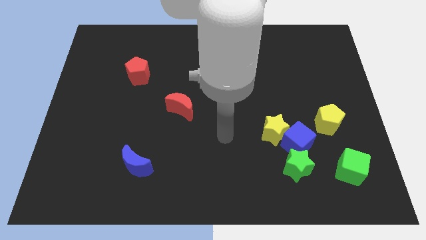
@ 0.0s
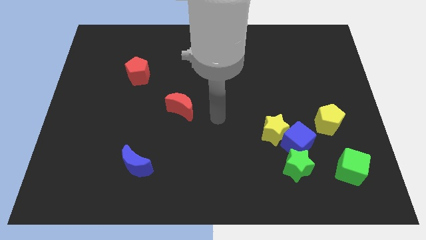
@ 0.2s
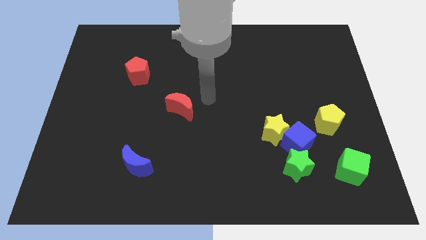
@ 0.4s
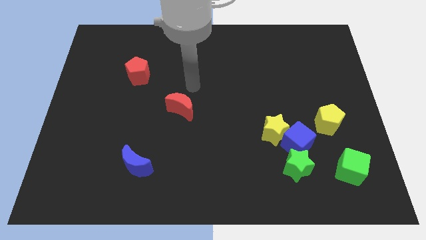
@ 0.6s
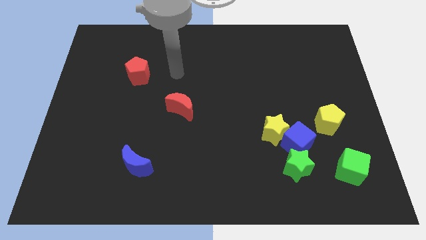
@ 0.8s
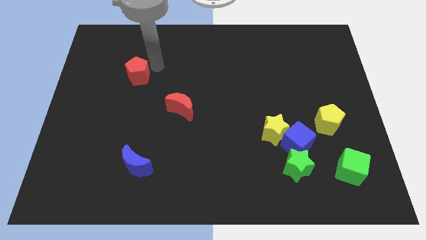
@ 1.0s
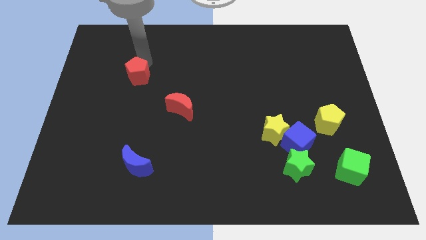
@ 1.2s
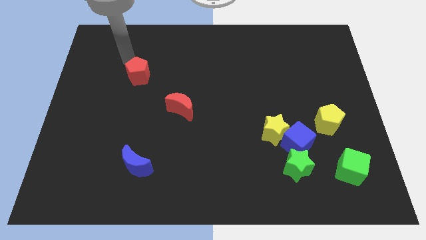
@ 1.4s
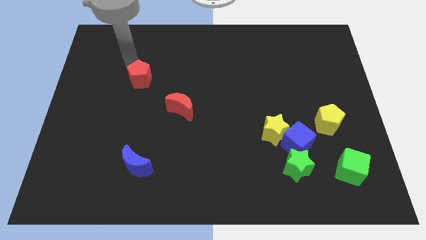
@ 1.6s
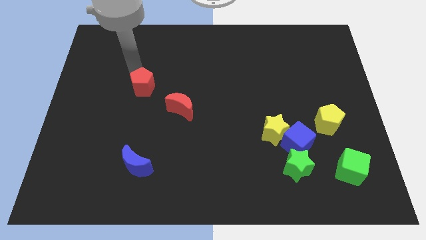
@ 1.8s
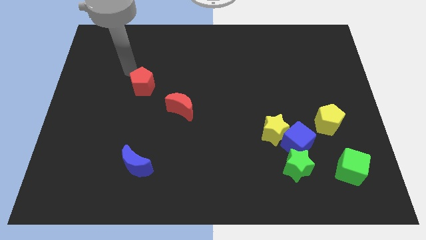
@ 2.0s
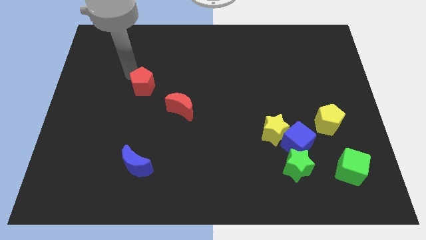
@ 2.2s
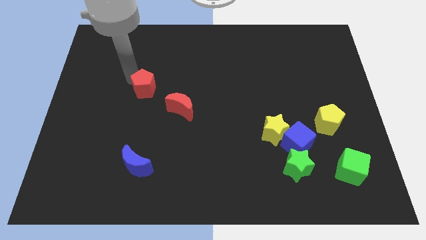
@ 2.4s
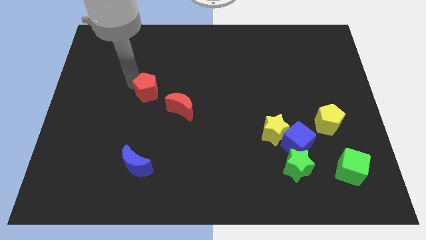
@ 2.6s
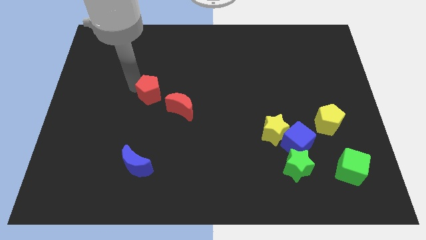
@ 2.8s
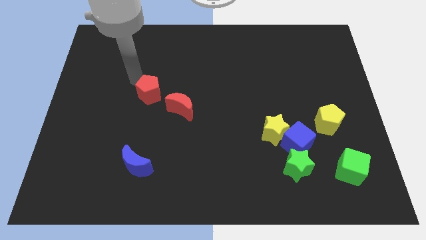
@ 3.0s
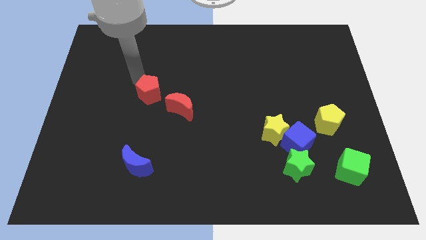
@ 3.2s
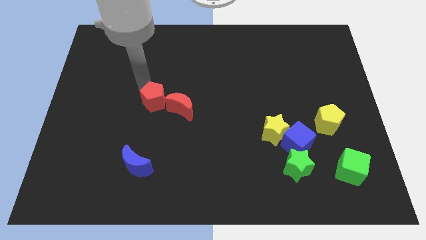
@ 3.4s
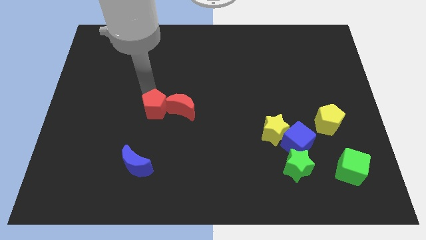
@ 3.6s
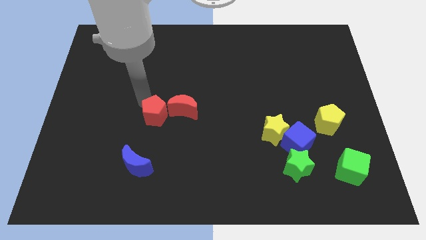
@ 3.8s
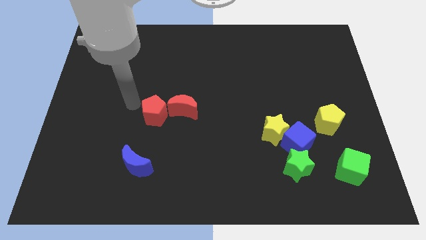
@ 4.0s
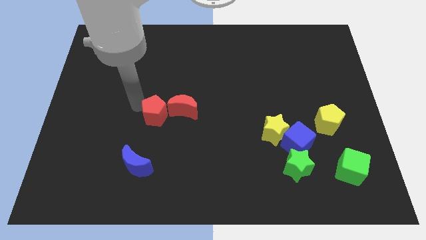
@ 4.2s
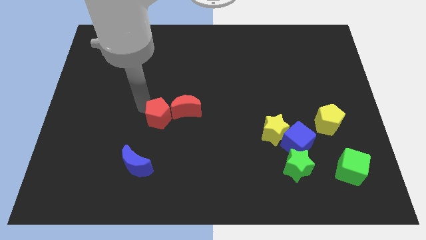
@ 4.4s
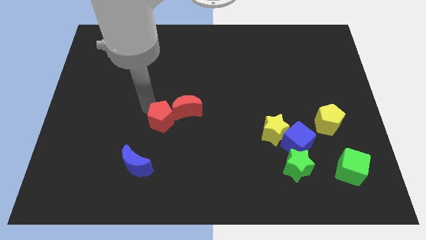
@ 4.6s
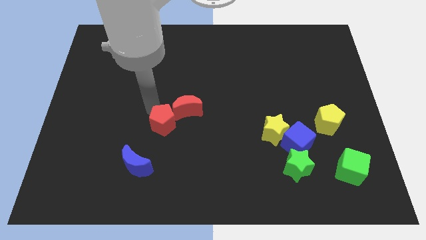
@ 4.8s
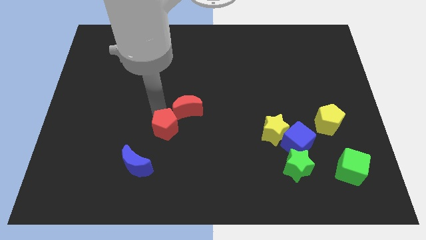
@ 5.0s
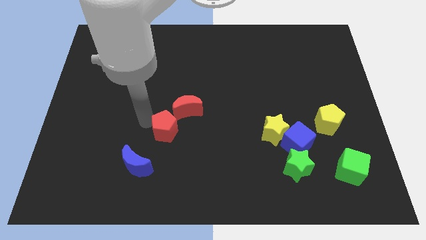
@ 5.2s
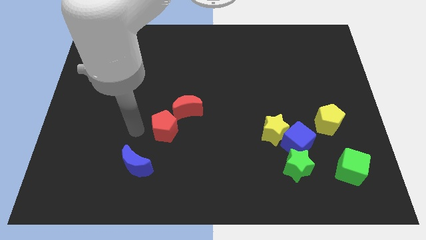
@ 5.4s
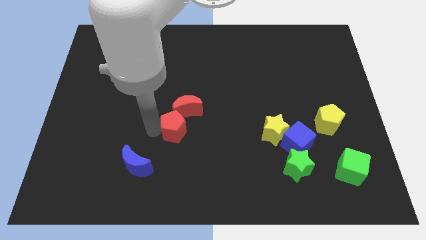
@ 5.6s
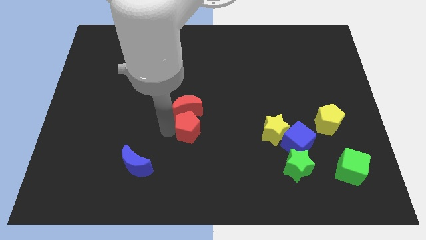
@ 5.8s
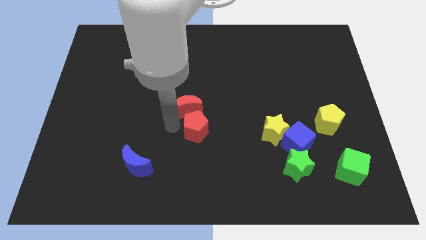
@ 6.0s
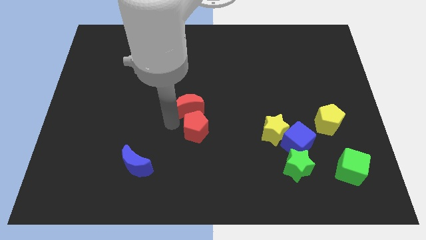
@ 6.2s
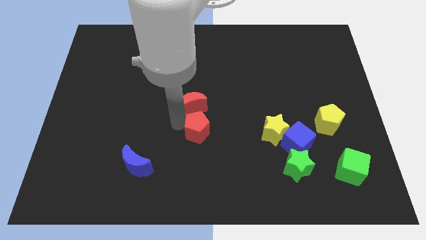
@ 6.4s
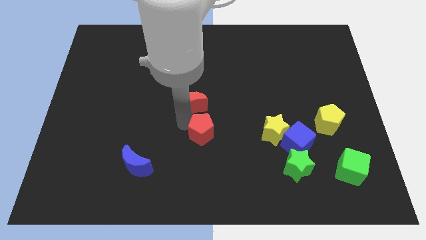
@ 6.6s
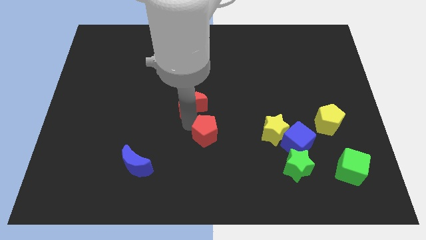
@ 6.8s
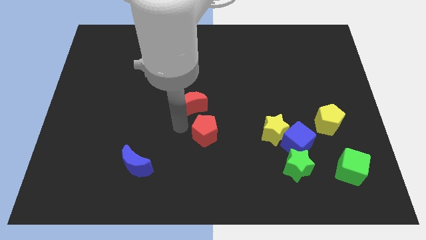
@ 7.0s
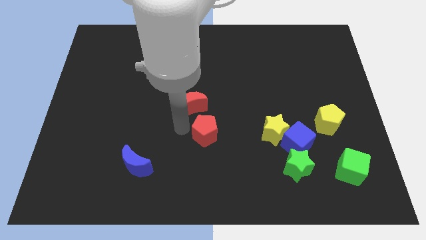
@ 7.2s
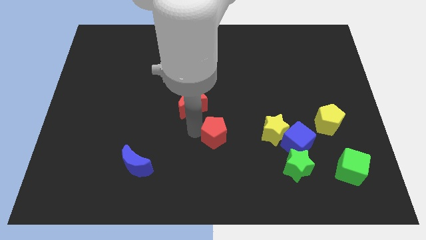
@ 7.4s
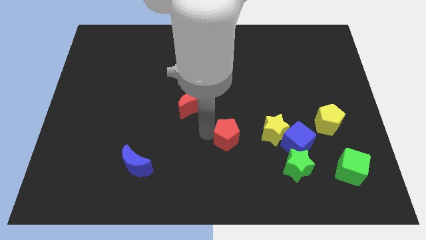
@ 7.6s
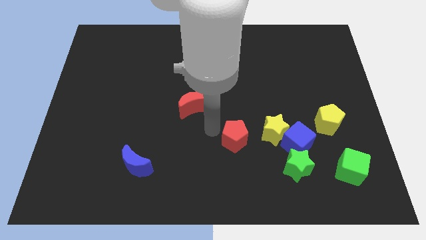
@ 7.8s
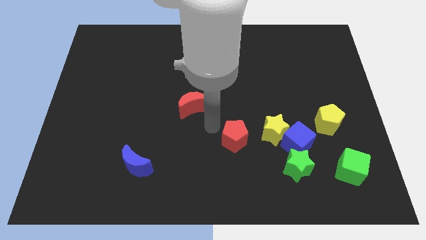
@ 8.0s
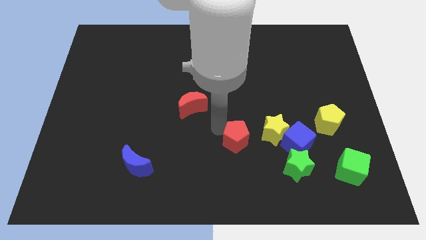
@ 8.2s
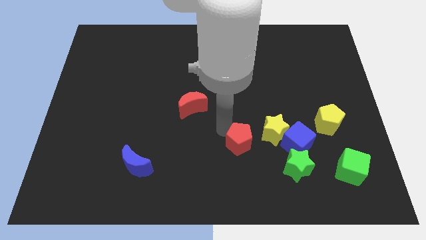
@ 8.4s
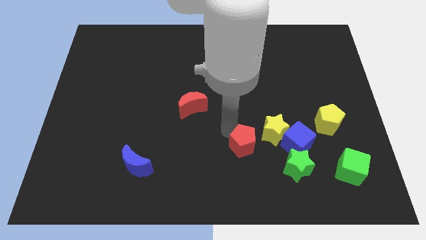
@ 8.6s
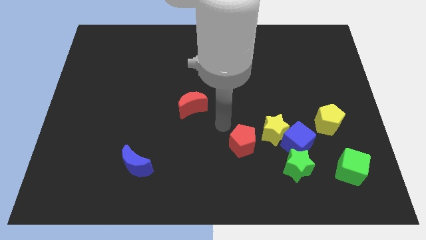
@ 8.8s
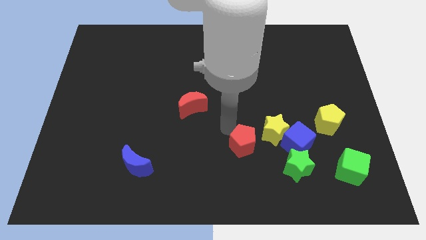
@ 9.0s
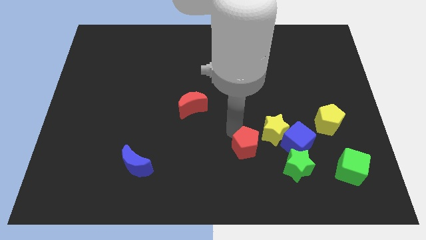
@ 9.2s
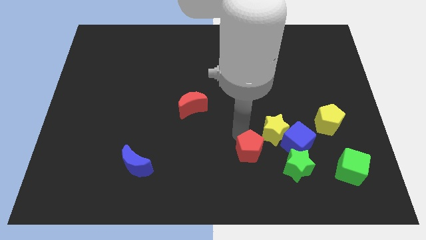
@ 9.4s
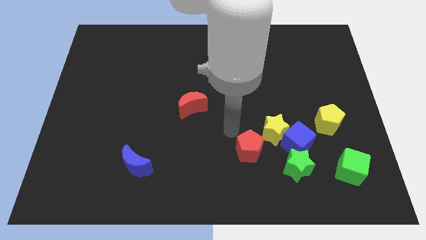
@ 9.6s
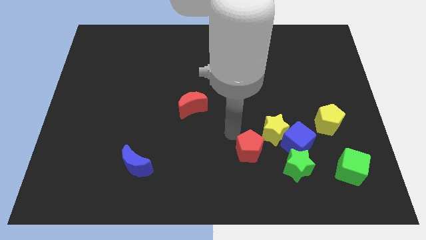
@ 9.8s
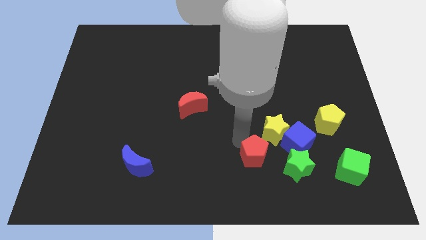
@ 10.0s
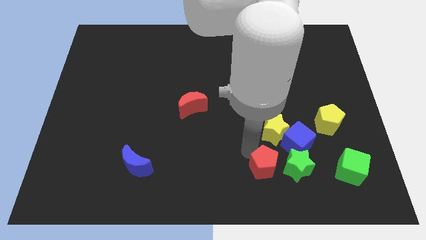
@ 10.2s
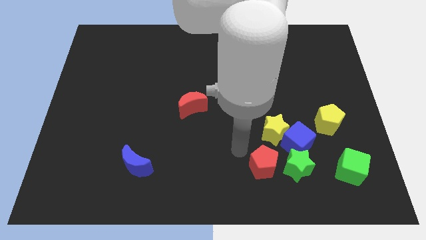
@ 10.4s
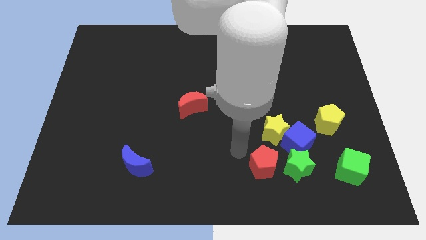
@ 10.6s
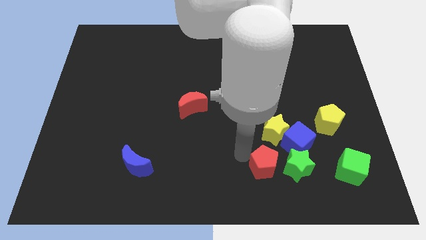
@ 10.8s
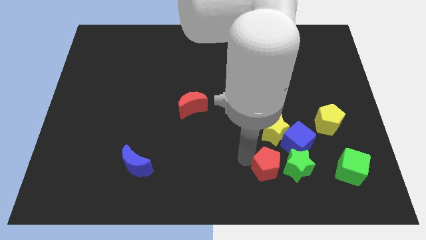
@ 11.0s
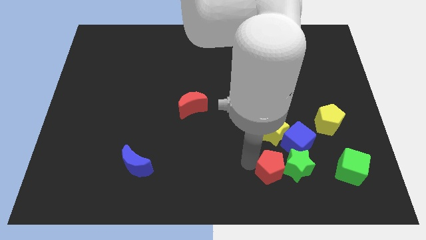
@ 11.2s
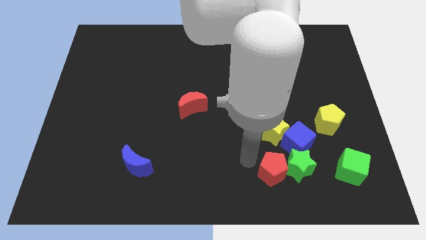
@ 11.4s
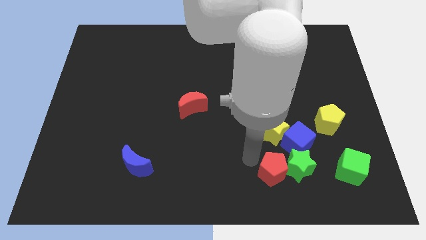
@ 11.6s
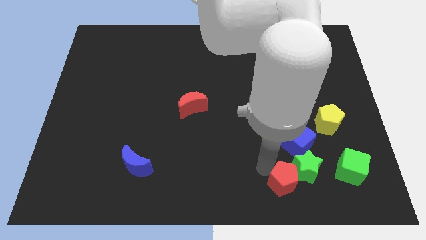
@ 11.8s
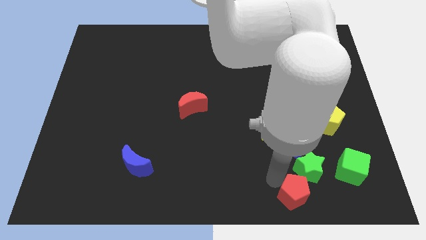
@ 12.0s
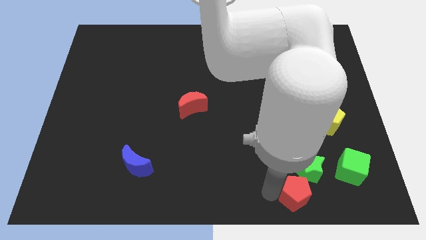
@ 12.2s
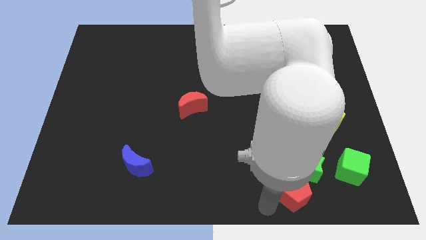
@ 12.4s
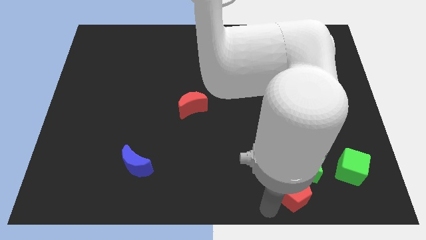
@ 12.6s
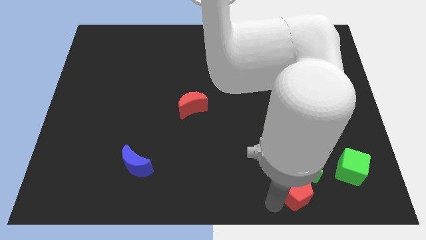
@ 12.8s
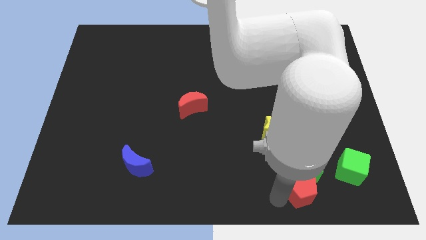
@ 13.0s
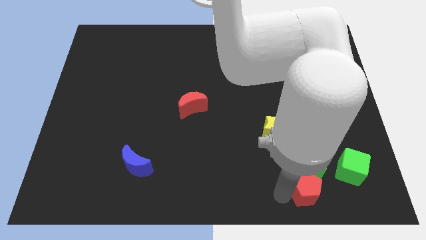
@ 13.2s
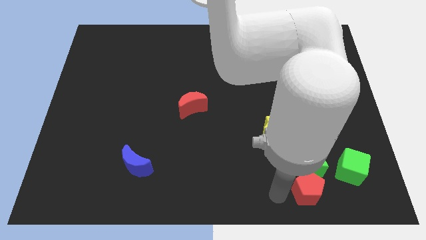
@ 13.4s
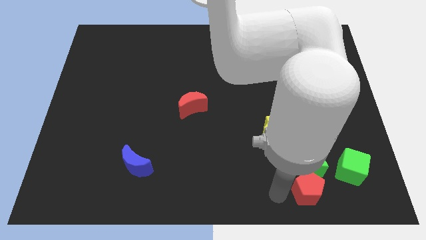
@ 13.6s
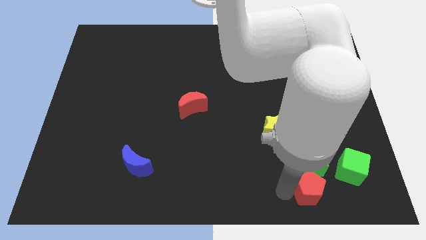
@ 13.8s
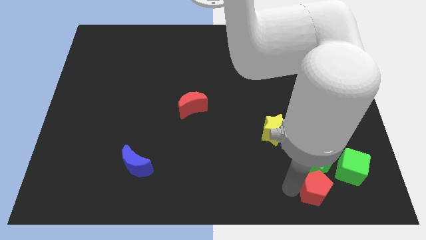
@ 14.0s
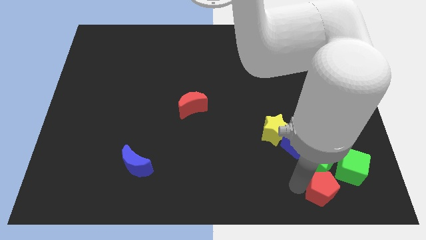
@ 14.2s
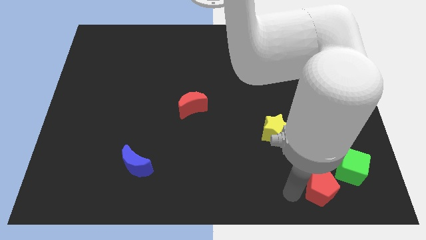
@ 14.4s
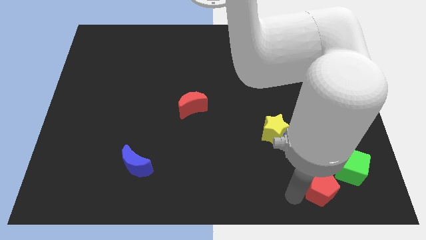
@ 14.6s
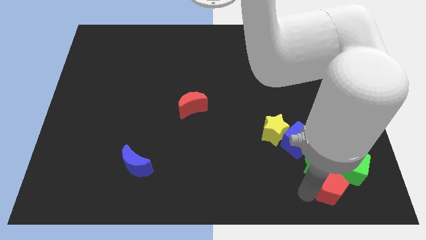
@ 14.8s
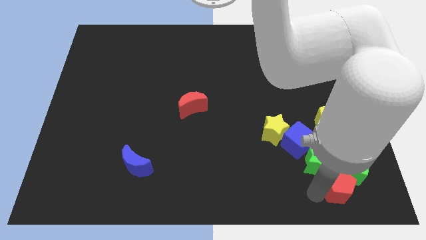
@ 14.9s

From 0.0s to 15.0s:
push the red pentagon below the yellow pentagon
